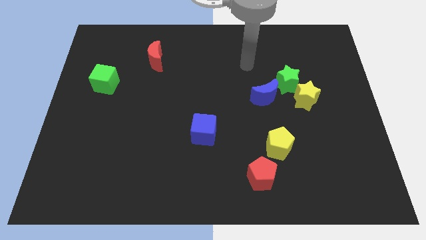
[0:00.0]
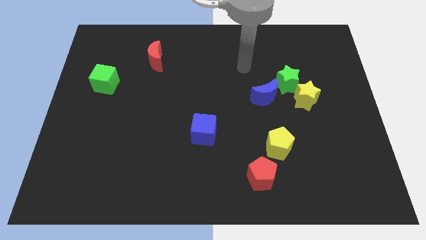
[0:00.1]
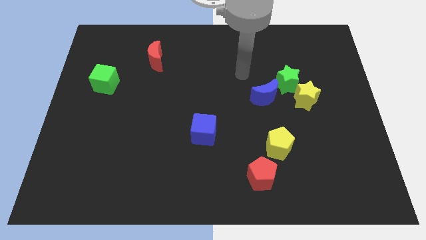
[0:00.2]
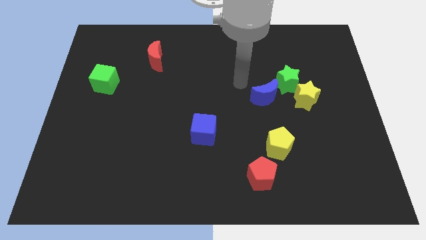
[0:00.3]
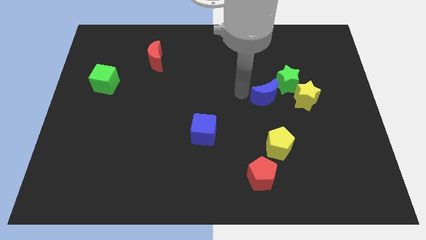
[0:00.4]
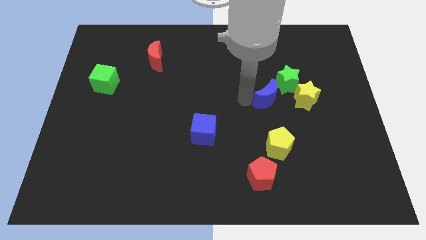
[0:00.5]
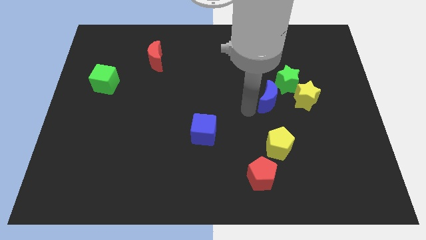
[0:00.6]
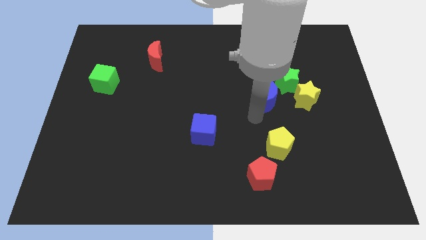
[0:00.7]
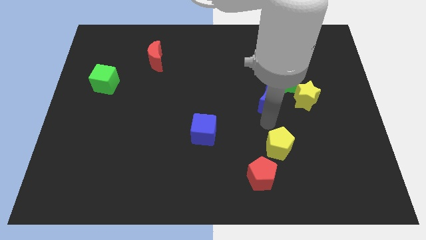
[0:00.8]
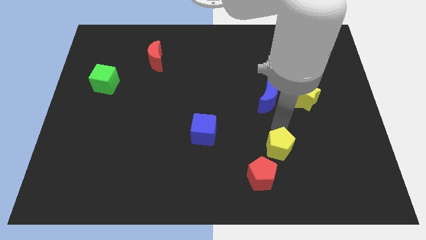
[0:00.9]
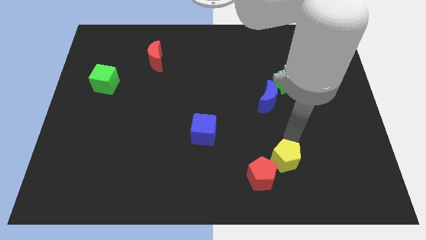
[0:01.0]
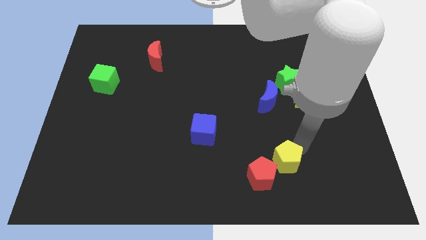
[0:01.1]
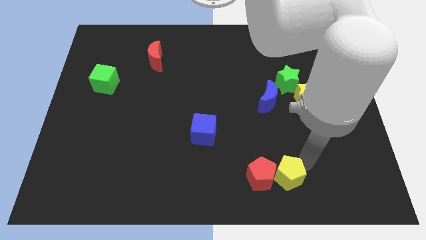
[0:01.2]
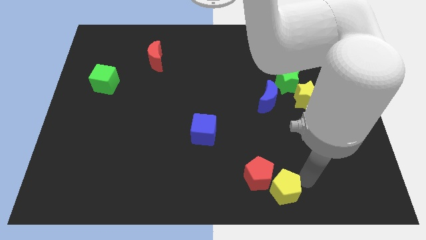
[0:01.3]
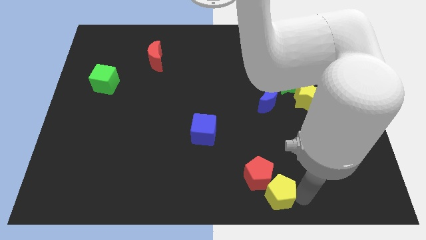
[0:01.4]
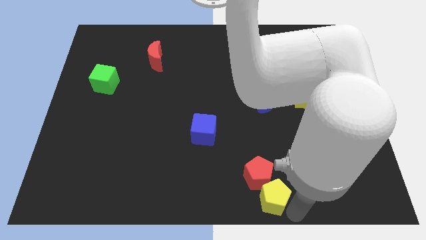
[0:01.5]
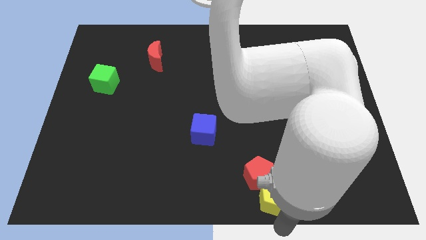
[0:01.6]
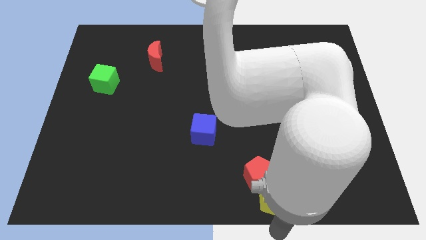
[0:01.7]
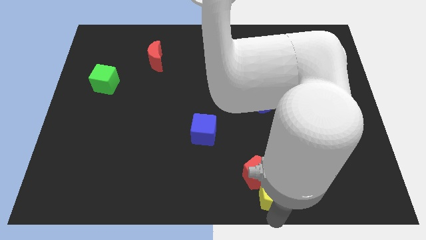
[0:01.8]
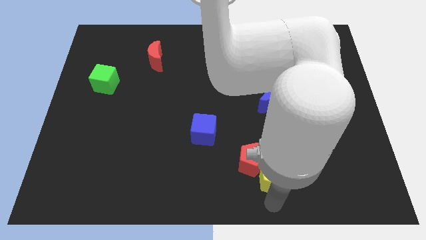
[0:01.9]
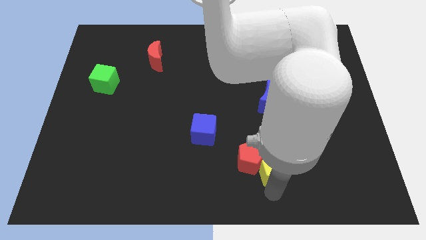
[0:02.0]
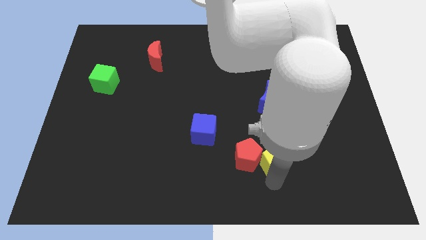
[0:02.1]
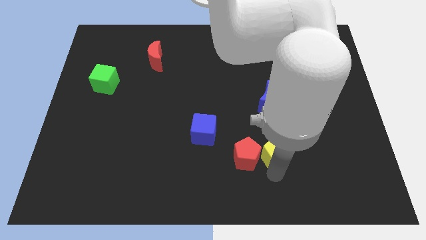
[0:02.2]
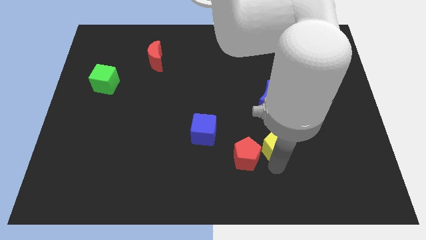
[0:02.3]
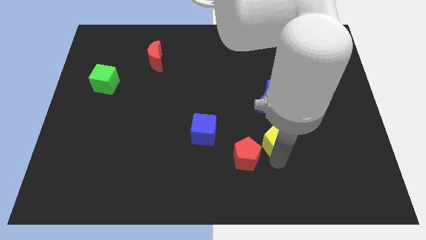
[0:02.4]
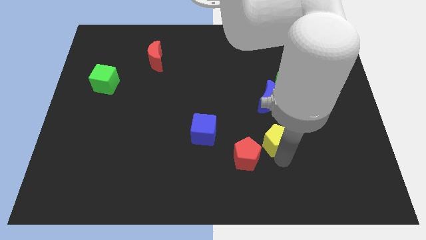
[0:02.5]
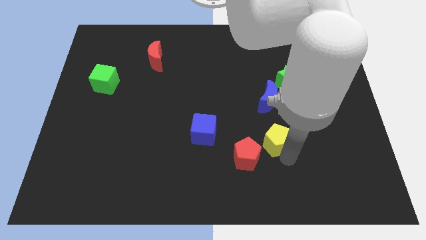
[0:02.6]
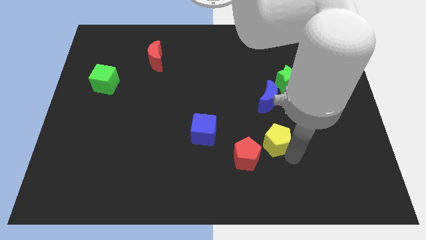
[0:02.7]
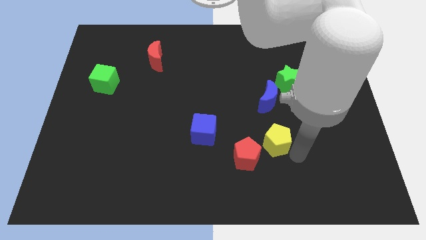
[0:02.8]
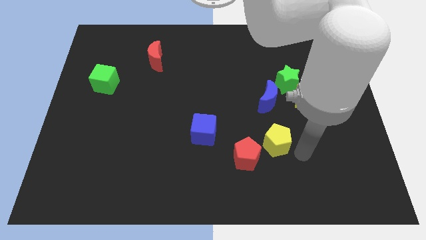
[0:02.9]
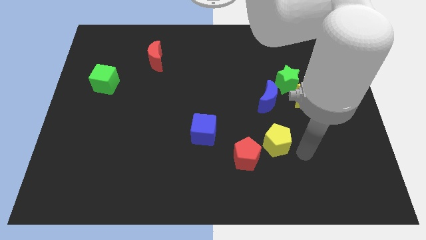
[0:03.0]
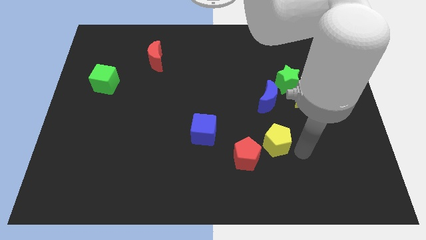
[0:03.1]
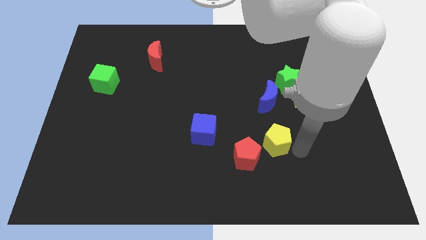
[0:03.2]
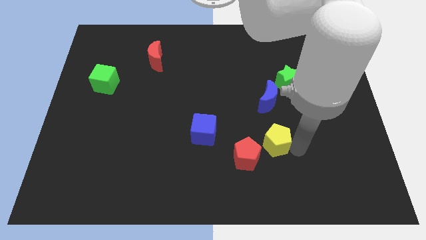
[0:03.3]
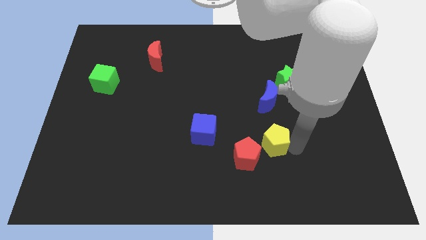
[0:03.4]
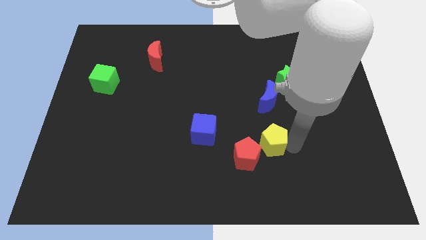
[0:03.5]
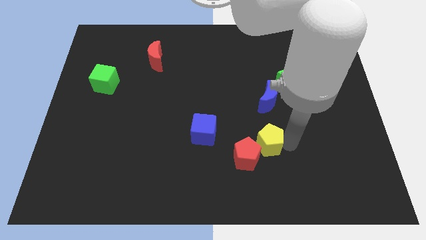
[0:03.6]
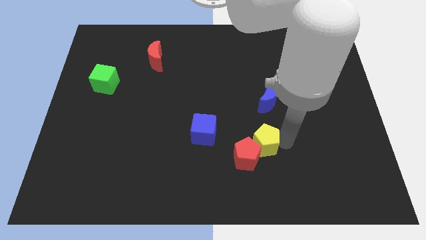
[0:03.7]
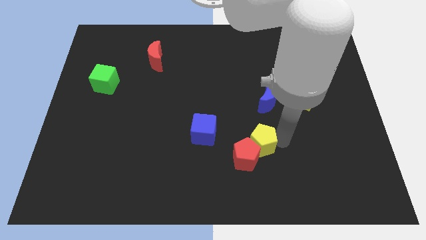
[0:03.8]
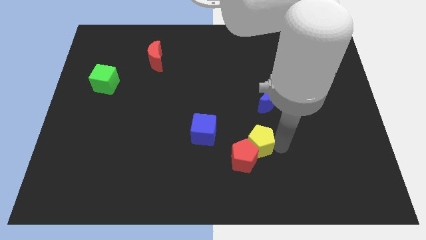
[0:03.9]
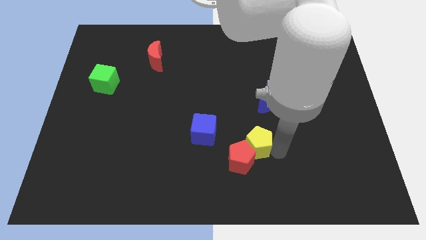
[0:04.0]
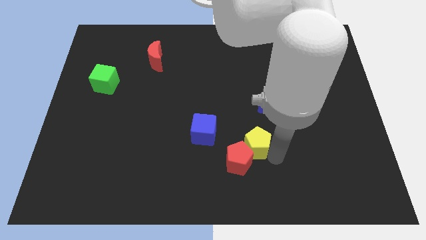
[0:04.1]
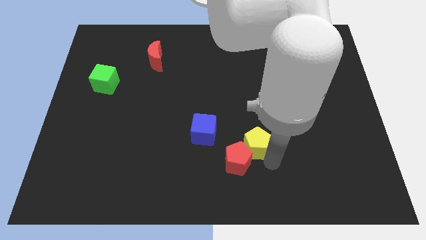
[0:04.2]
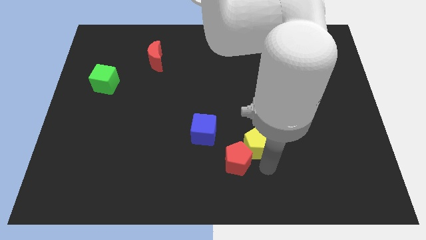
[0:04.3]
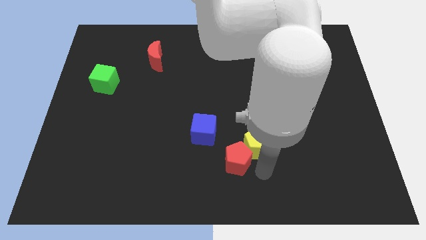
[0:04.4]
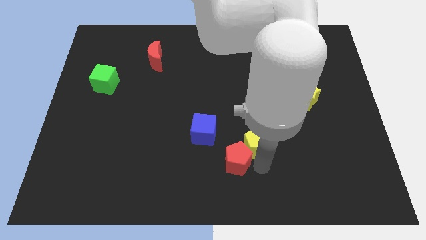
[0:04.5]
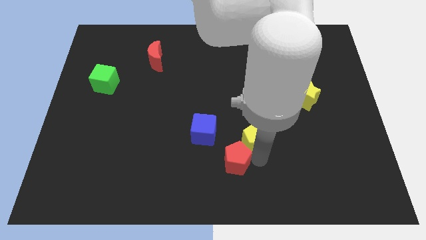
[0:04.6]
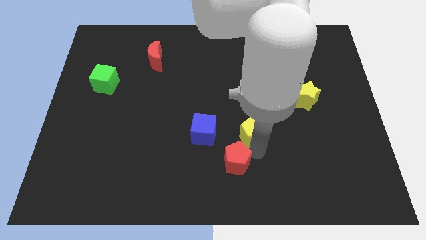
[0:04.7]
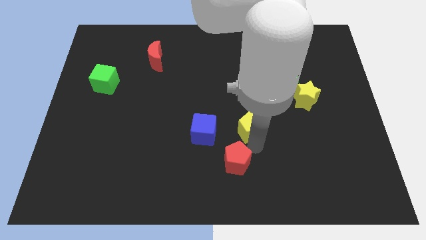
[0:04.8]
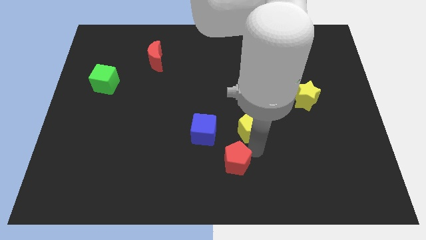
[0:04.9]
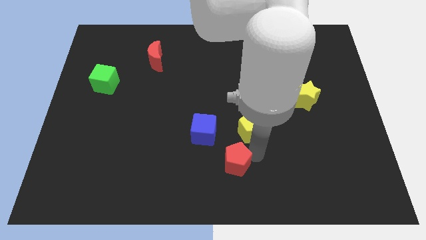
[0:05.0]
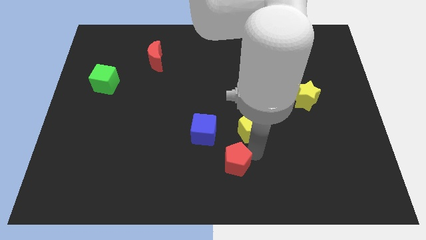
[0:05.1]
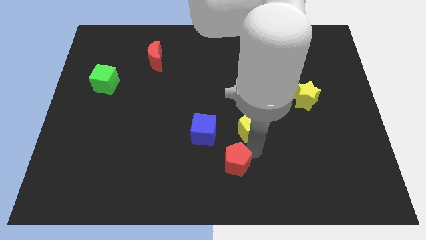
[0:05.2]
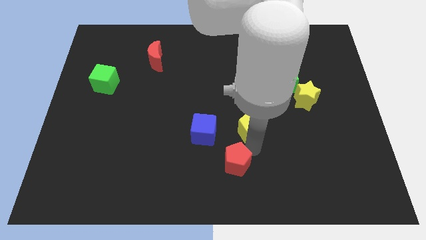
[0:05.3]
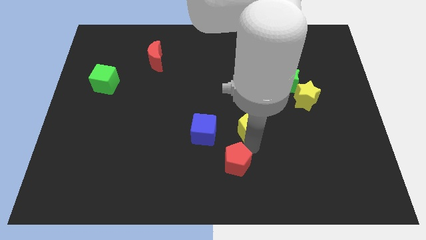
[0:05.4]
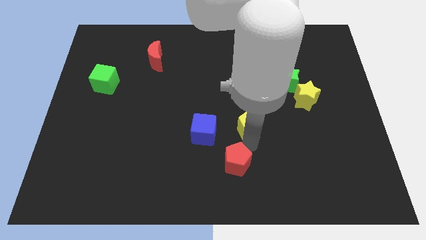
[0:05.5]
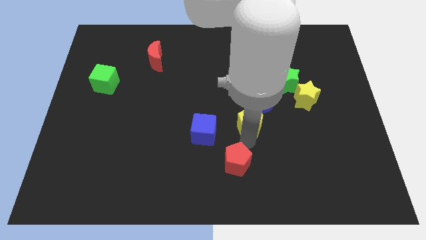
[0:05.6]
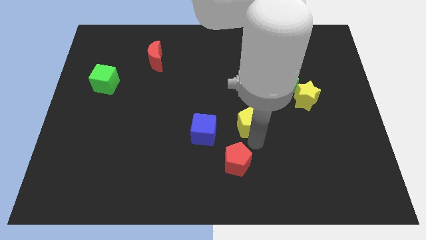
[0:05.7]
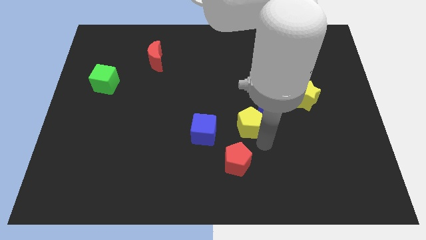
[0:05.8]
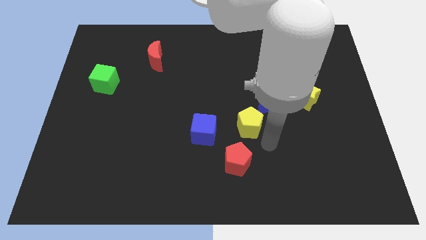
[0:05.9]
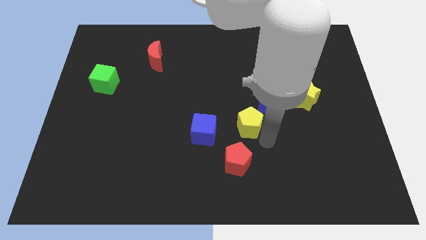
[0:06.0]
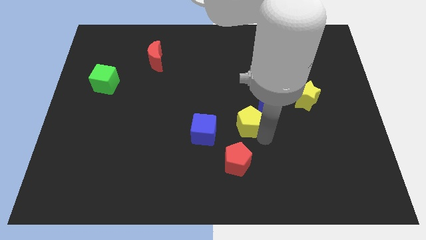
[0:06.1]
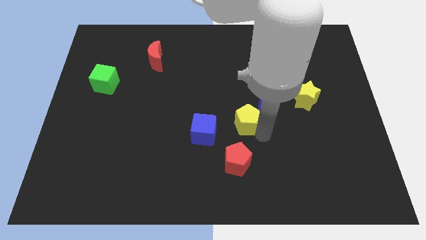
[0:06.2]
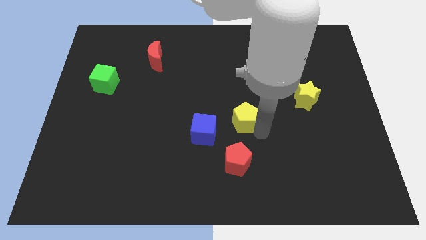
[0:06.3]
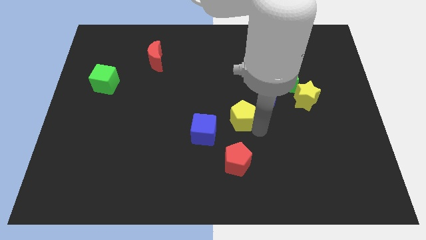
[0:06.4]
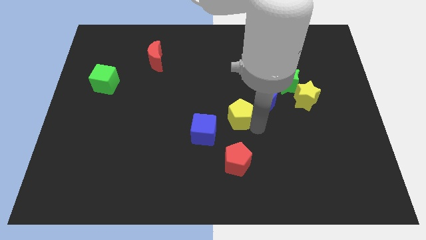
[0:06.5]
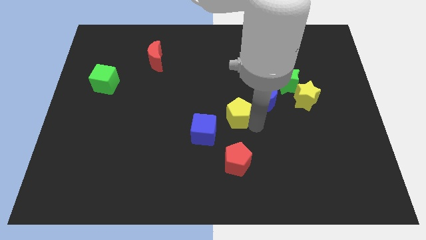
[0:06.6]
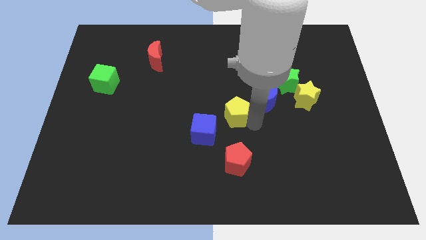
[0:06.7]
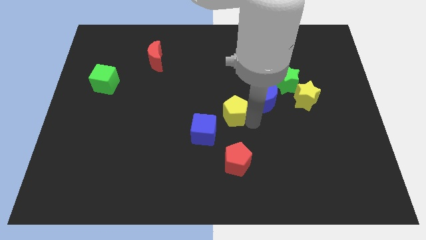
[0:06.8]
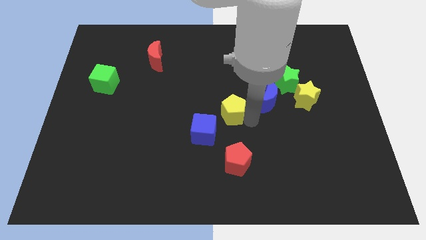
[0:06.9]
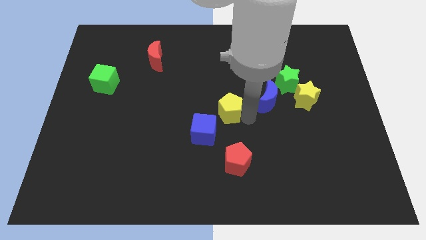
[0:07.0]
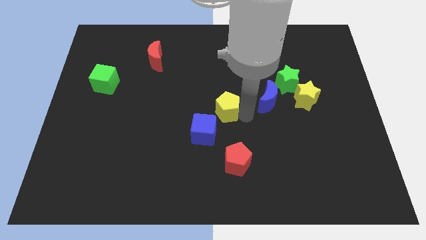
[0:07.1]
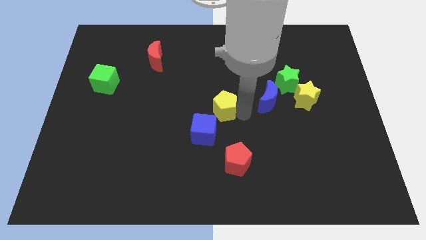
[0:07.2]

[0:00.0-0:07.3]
slide the yellow pentagon to the top side of the blue cube
